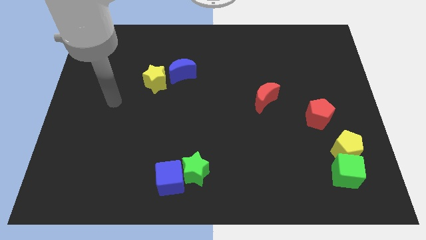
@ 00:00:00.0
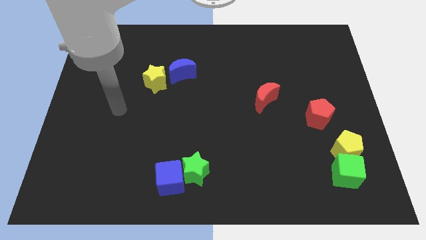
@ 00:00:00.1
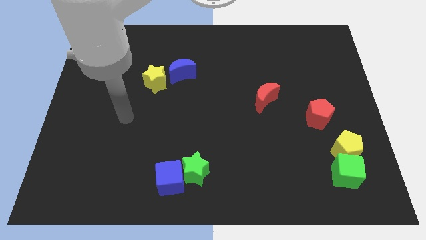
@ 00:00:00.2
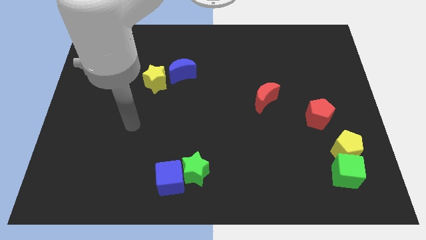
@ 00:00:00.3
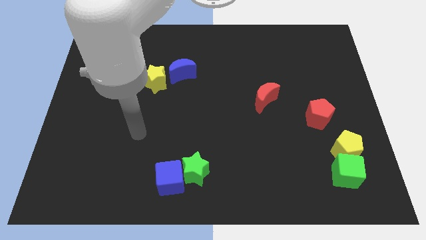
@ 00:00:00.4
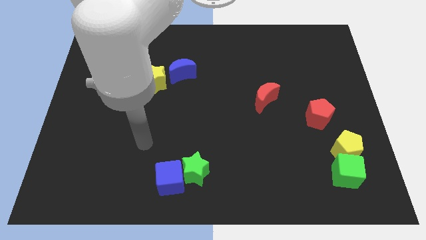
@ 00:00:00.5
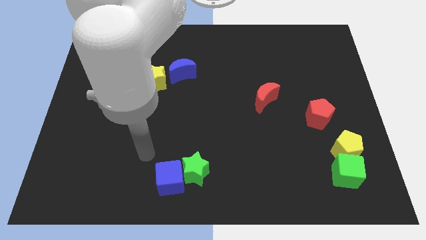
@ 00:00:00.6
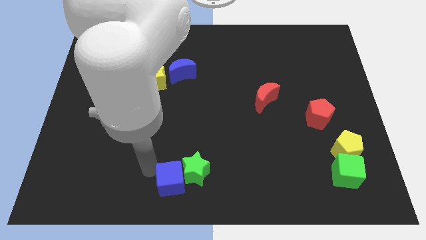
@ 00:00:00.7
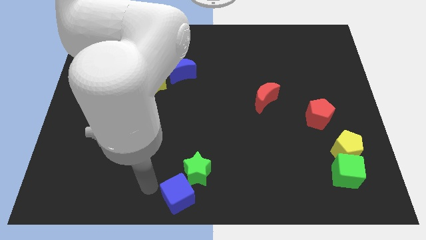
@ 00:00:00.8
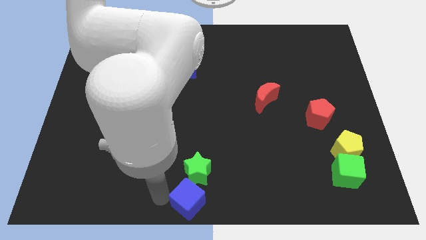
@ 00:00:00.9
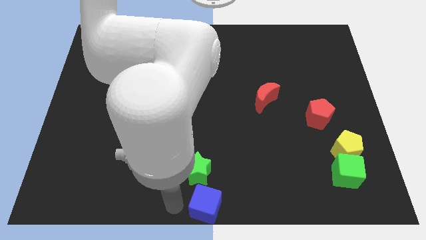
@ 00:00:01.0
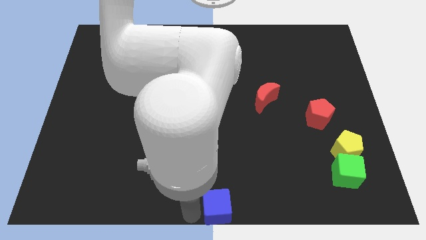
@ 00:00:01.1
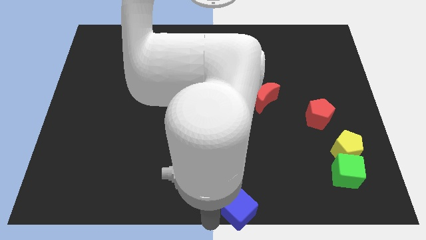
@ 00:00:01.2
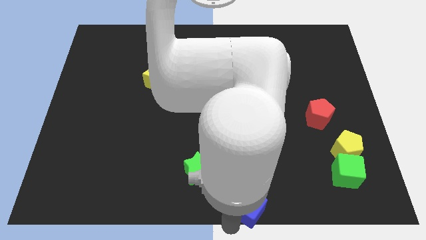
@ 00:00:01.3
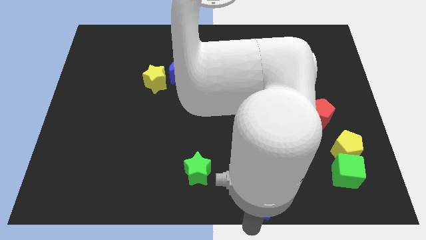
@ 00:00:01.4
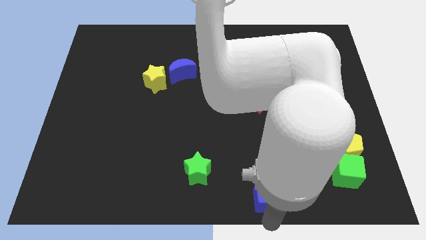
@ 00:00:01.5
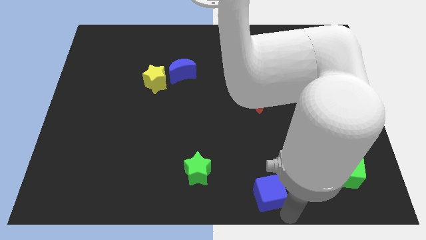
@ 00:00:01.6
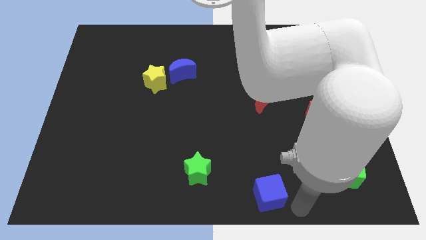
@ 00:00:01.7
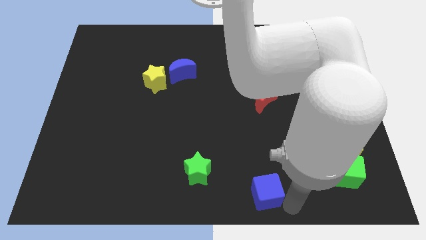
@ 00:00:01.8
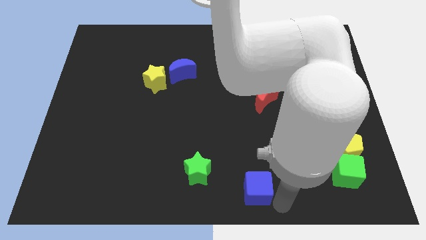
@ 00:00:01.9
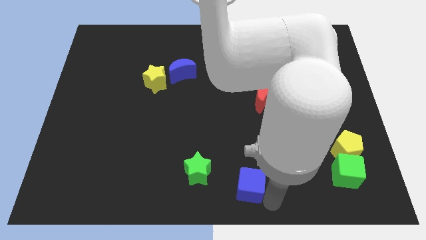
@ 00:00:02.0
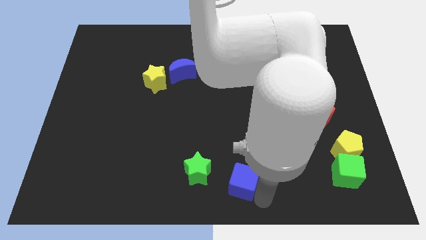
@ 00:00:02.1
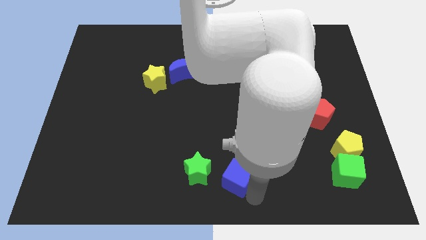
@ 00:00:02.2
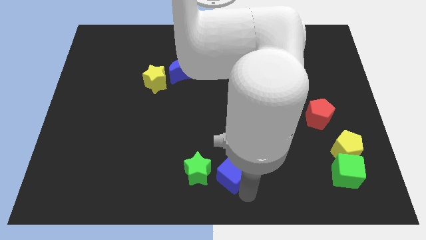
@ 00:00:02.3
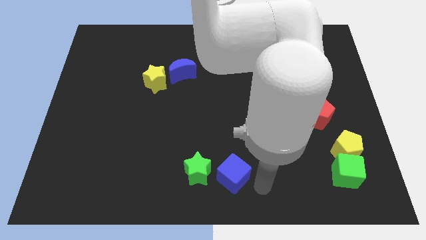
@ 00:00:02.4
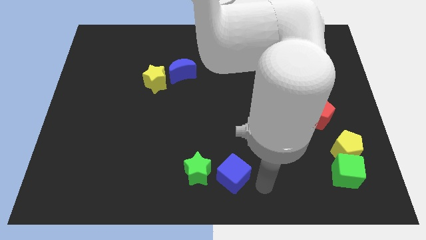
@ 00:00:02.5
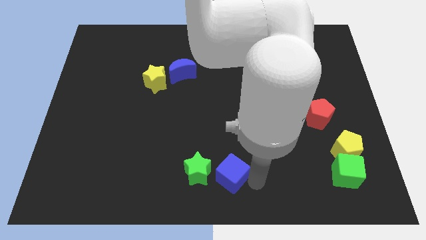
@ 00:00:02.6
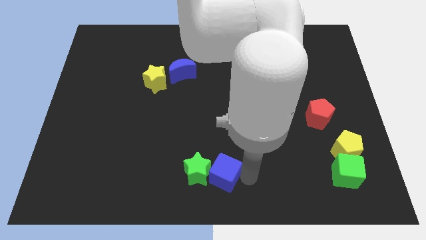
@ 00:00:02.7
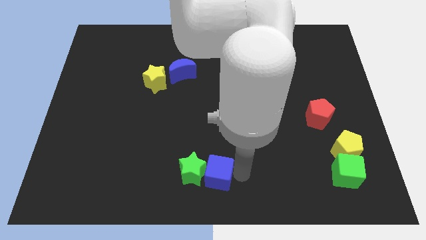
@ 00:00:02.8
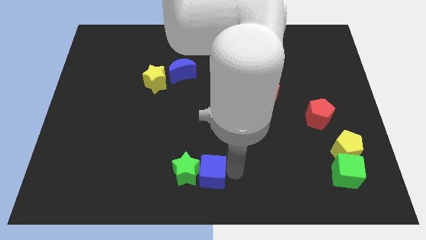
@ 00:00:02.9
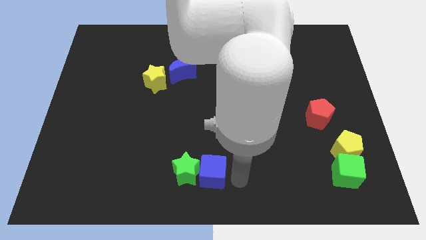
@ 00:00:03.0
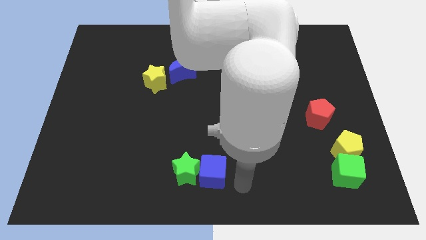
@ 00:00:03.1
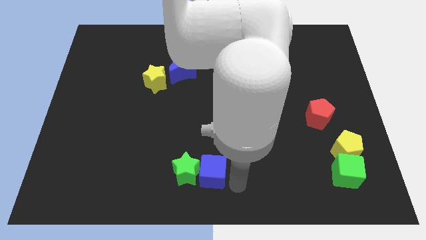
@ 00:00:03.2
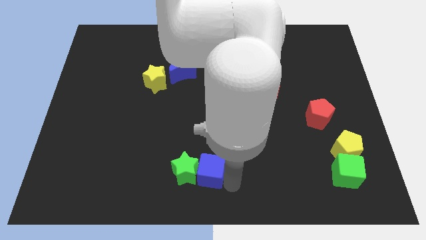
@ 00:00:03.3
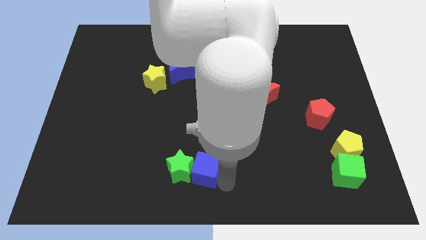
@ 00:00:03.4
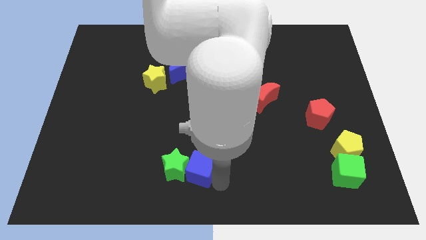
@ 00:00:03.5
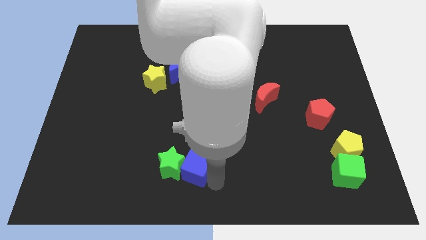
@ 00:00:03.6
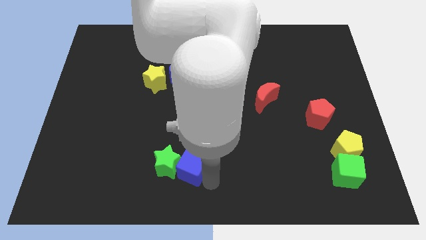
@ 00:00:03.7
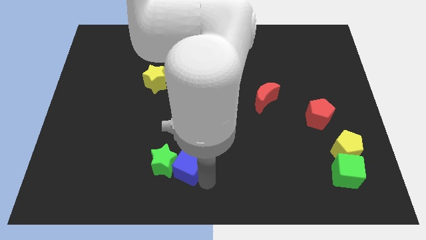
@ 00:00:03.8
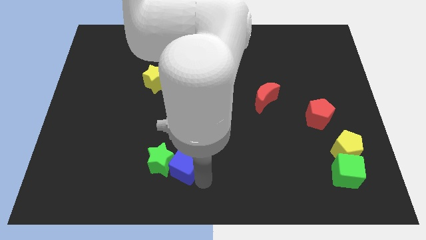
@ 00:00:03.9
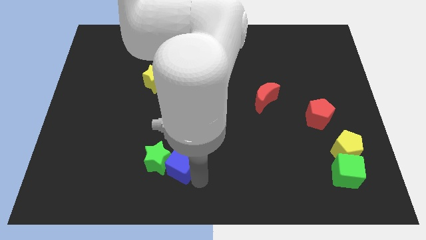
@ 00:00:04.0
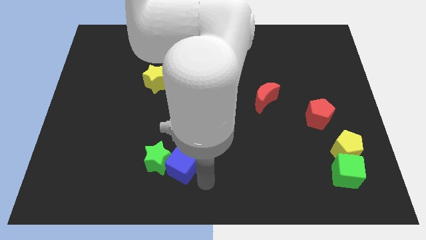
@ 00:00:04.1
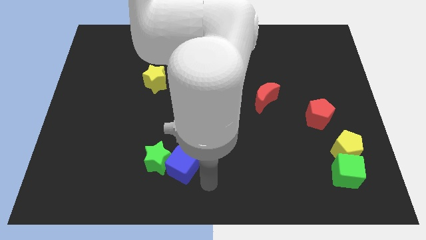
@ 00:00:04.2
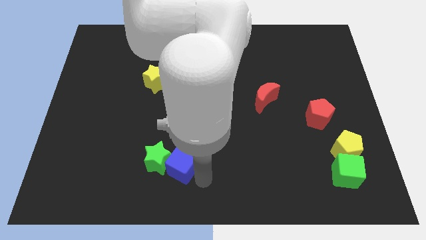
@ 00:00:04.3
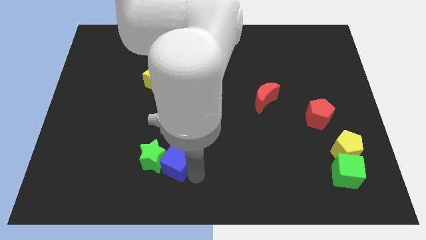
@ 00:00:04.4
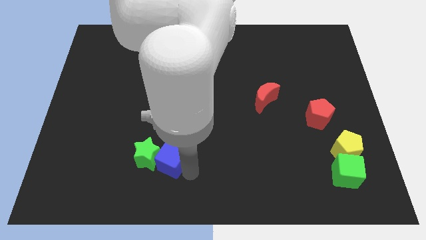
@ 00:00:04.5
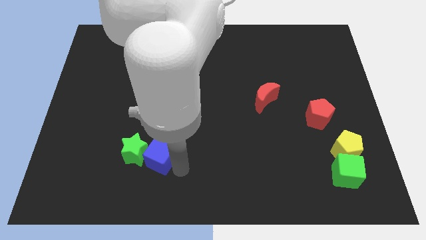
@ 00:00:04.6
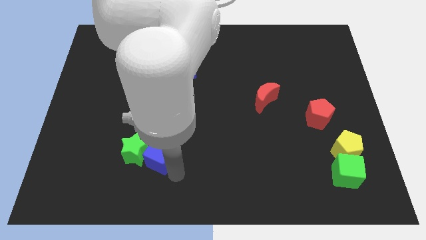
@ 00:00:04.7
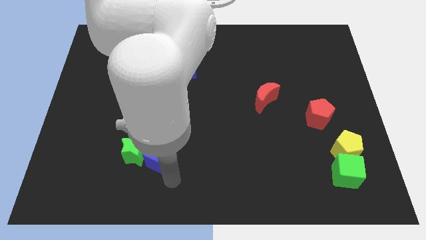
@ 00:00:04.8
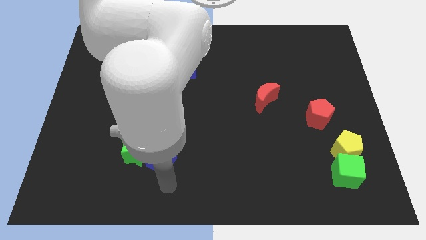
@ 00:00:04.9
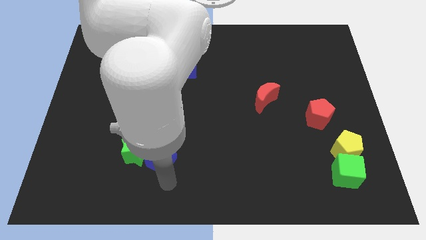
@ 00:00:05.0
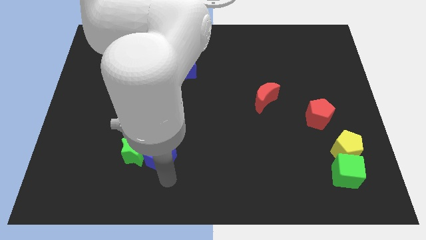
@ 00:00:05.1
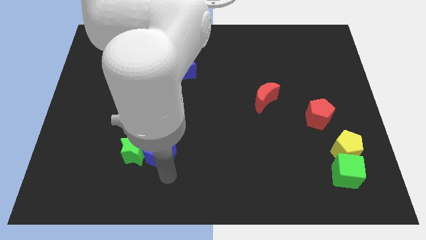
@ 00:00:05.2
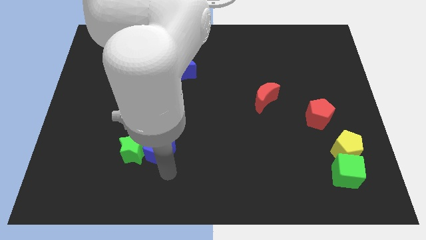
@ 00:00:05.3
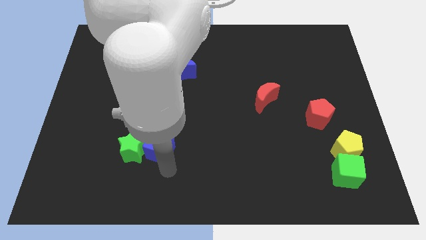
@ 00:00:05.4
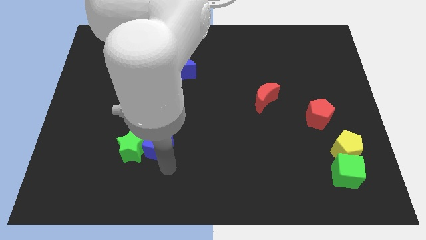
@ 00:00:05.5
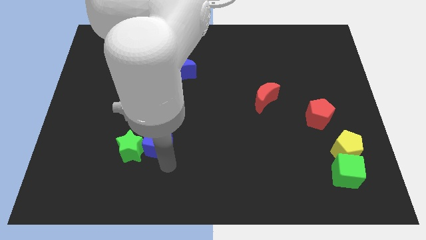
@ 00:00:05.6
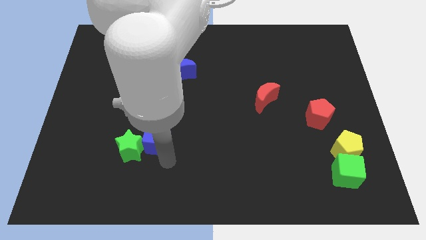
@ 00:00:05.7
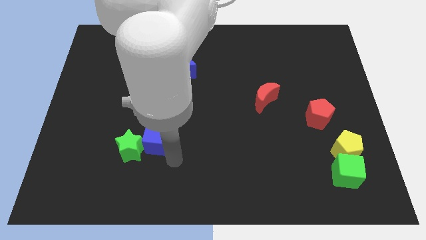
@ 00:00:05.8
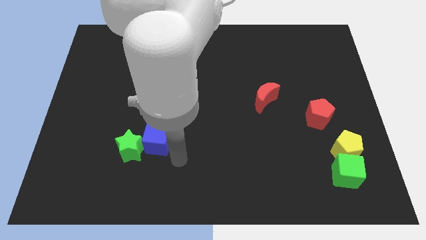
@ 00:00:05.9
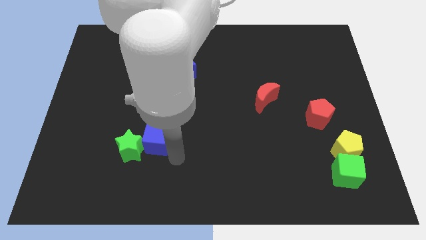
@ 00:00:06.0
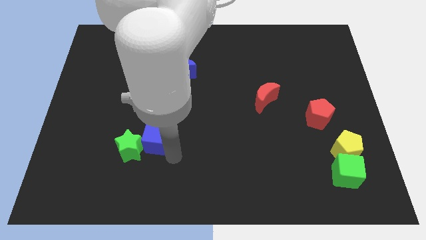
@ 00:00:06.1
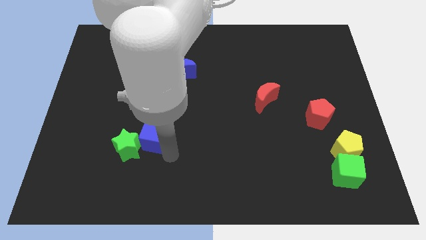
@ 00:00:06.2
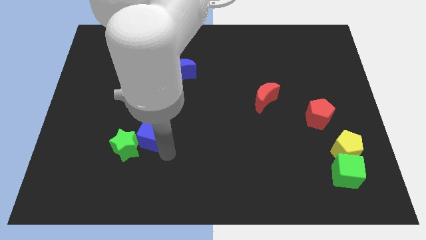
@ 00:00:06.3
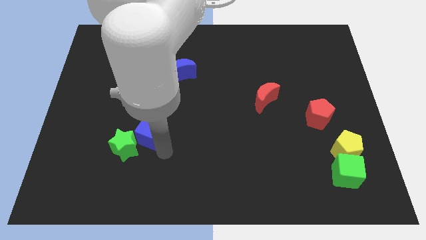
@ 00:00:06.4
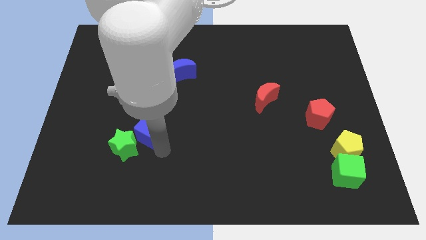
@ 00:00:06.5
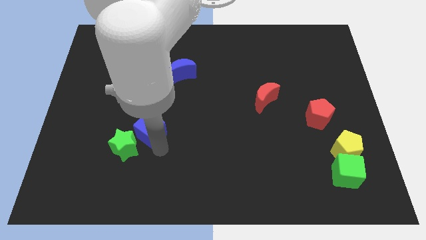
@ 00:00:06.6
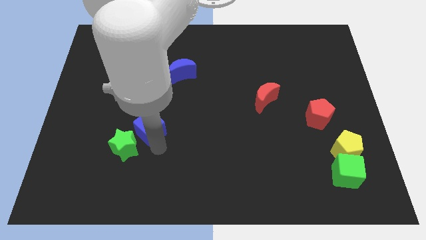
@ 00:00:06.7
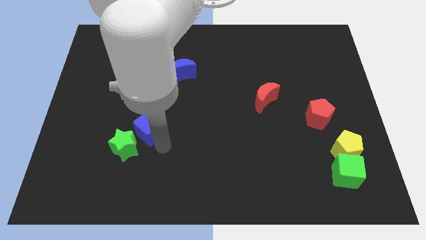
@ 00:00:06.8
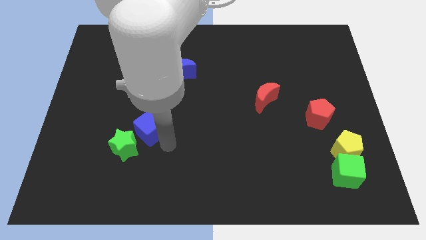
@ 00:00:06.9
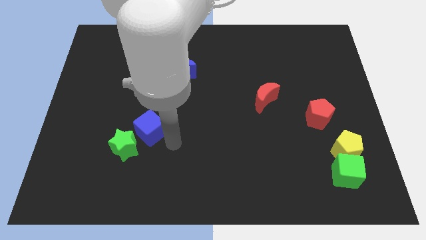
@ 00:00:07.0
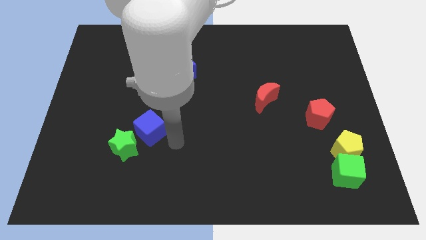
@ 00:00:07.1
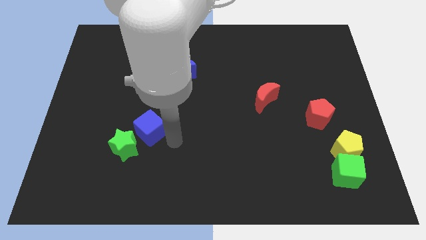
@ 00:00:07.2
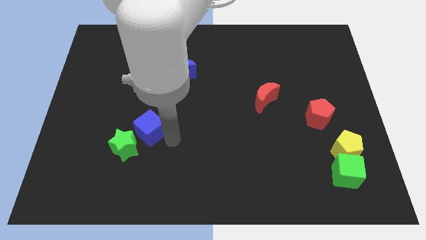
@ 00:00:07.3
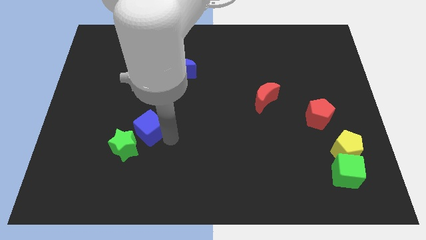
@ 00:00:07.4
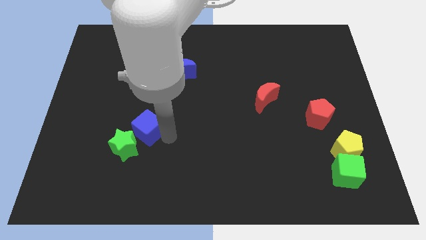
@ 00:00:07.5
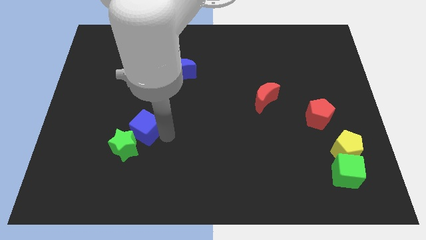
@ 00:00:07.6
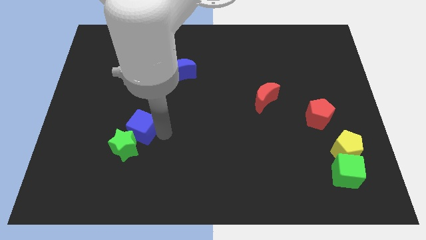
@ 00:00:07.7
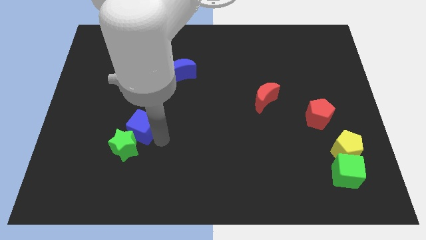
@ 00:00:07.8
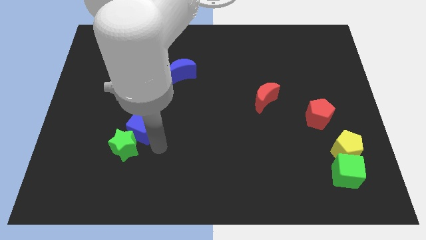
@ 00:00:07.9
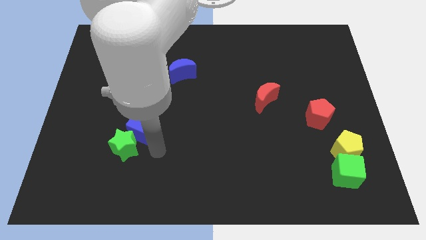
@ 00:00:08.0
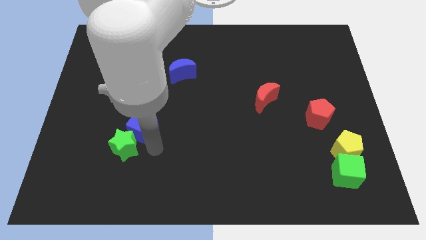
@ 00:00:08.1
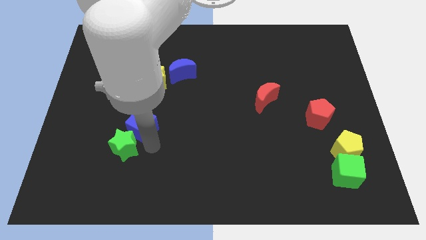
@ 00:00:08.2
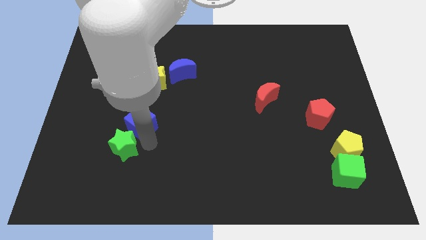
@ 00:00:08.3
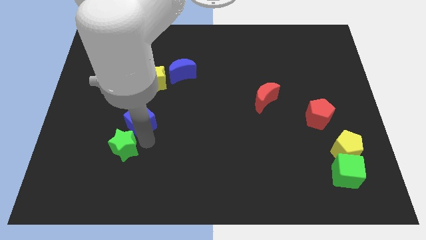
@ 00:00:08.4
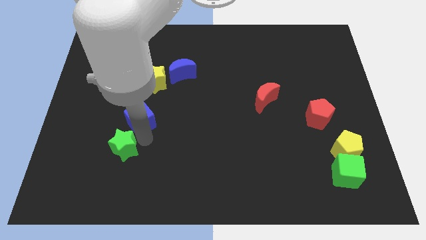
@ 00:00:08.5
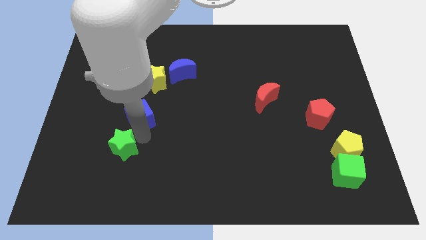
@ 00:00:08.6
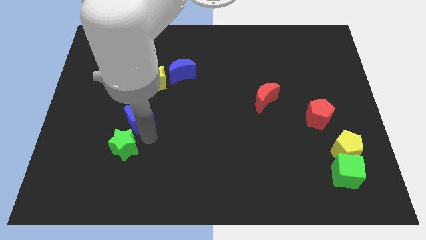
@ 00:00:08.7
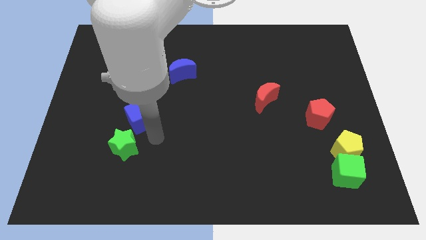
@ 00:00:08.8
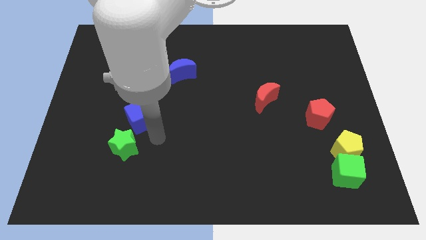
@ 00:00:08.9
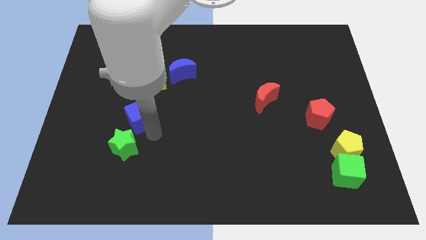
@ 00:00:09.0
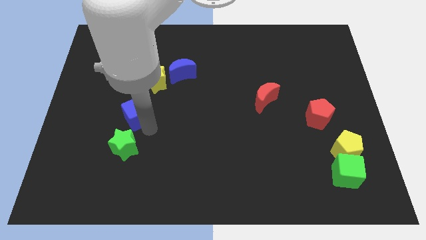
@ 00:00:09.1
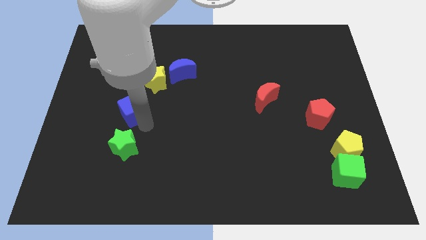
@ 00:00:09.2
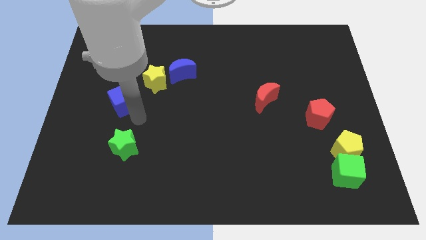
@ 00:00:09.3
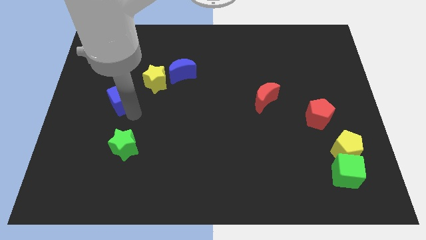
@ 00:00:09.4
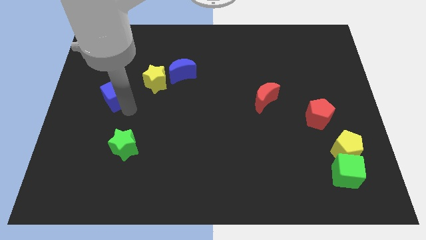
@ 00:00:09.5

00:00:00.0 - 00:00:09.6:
push the blue cube left of the yellow star
